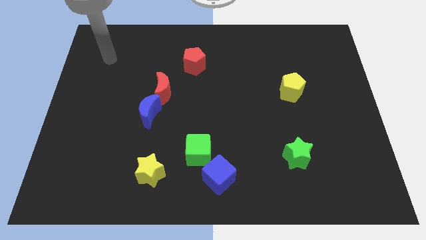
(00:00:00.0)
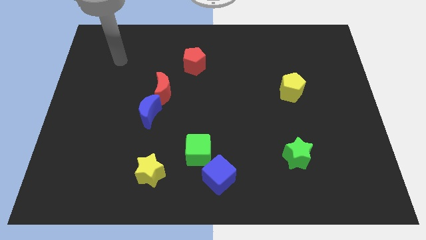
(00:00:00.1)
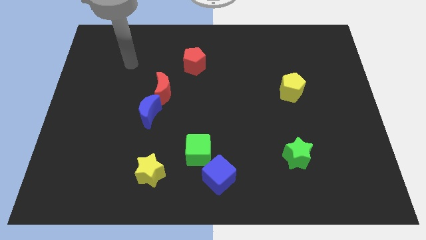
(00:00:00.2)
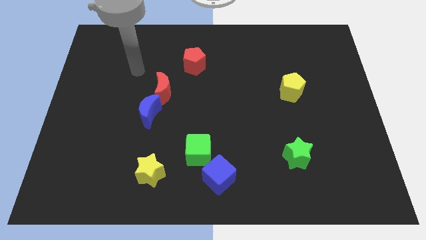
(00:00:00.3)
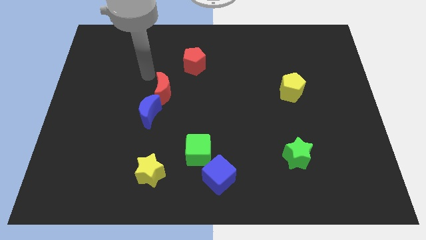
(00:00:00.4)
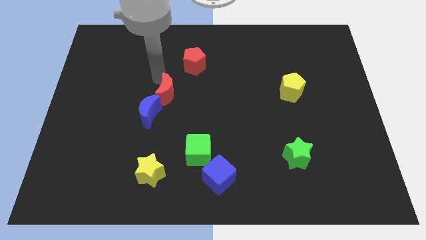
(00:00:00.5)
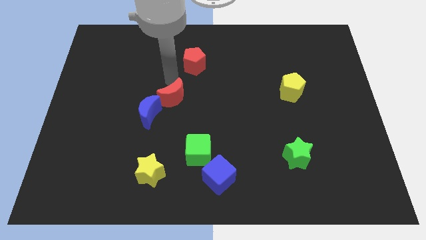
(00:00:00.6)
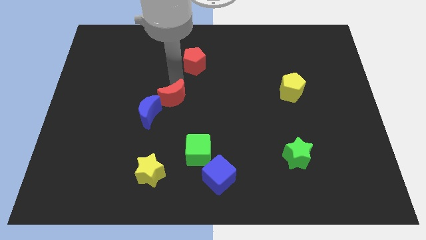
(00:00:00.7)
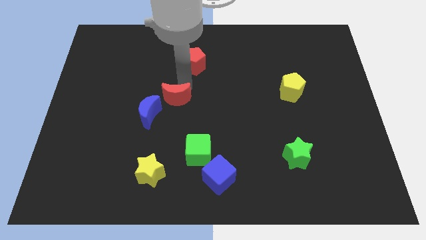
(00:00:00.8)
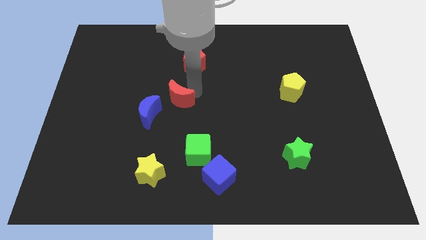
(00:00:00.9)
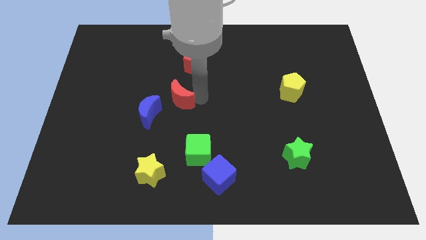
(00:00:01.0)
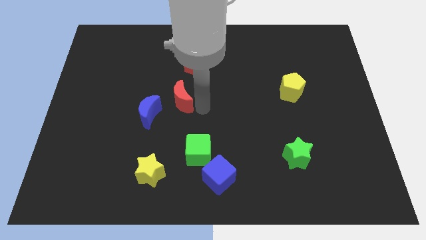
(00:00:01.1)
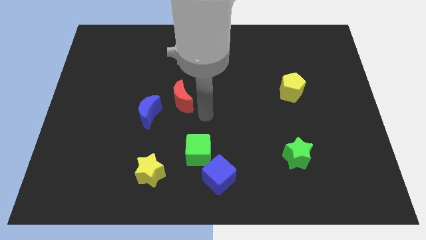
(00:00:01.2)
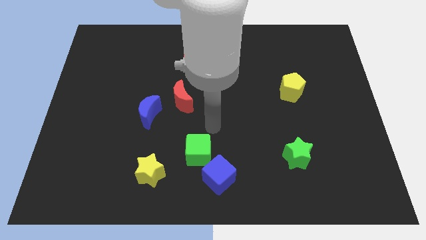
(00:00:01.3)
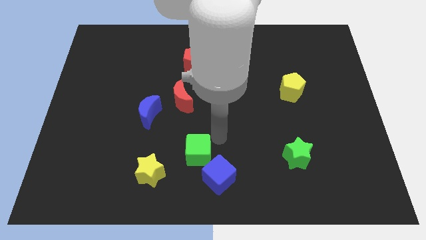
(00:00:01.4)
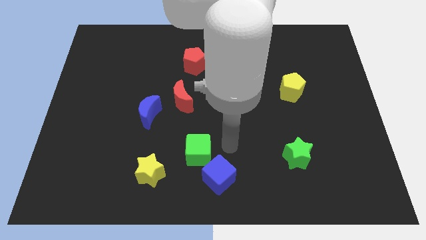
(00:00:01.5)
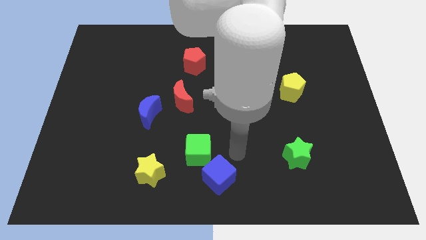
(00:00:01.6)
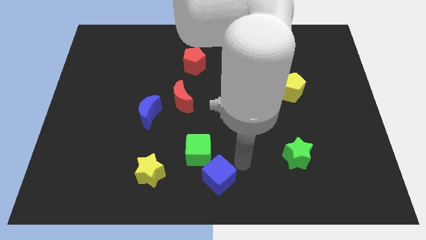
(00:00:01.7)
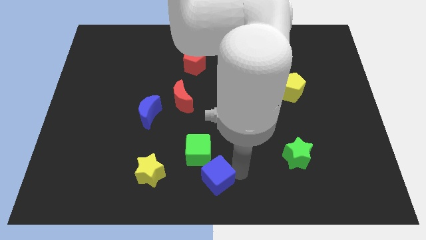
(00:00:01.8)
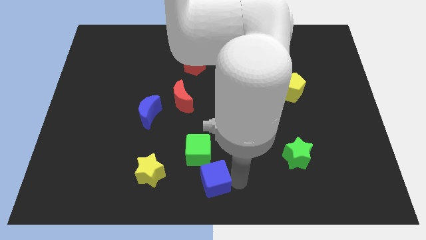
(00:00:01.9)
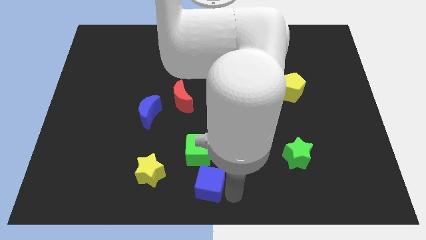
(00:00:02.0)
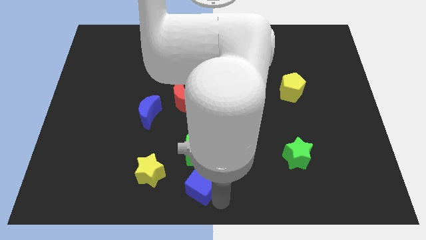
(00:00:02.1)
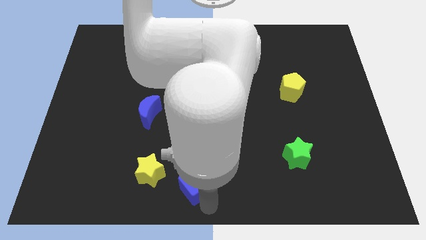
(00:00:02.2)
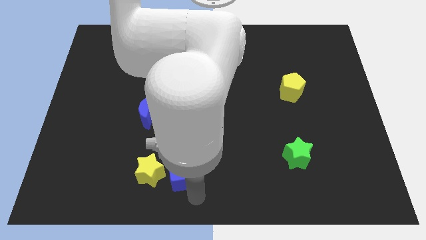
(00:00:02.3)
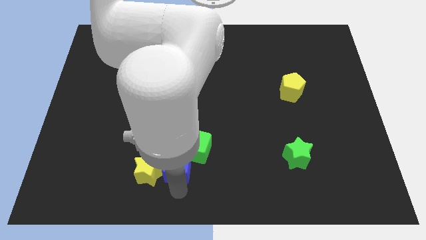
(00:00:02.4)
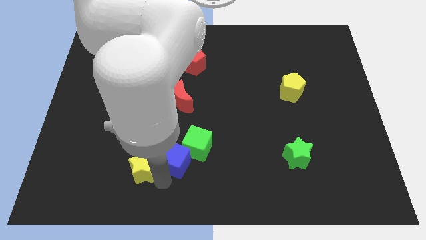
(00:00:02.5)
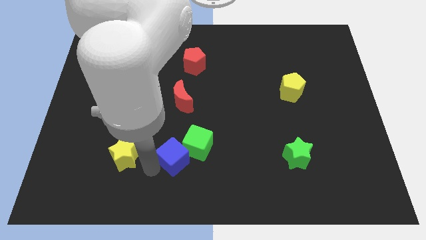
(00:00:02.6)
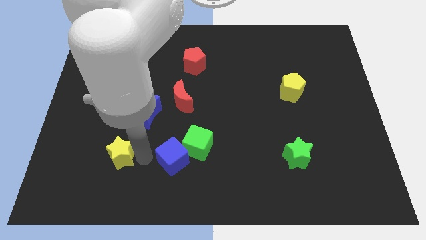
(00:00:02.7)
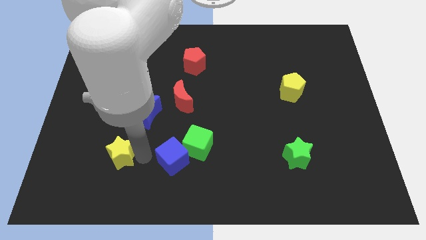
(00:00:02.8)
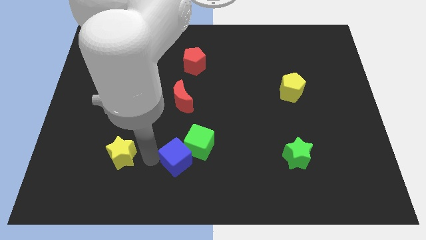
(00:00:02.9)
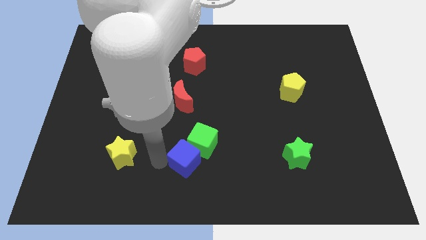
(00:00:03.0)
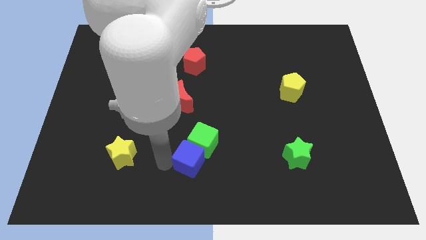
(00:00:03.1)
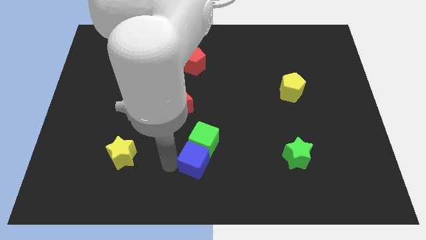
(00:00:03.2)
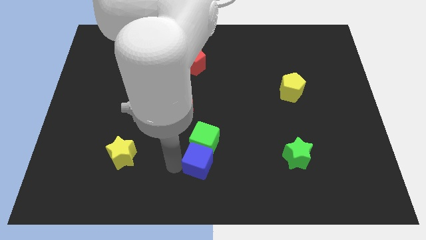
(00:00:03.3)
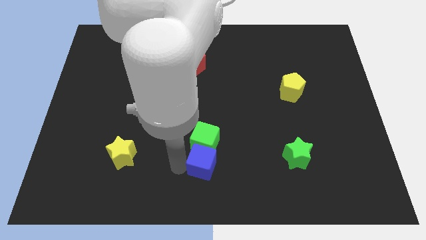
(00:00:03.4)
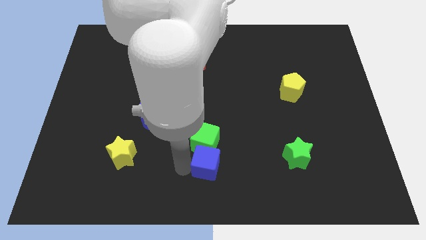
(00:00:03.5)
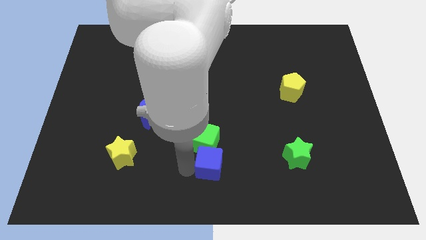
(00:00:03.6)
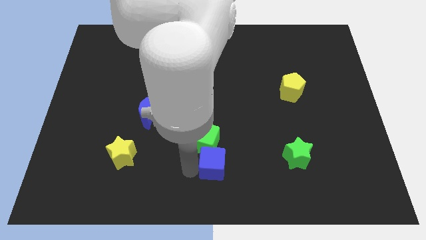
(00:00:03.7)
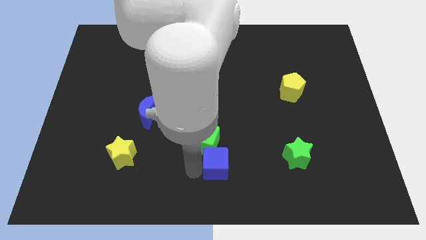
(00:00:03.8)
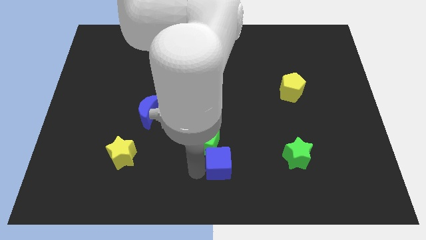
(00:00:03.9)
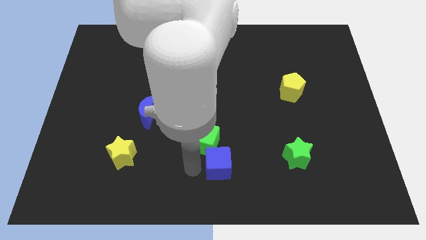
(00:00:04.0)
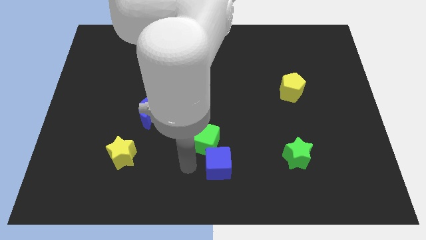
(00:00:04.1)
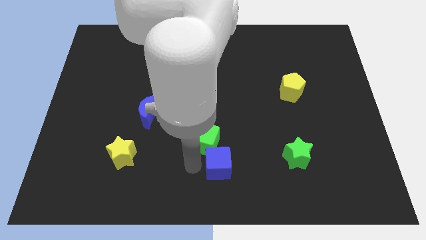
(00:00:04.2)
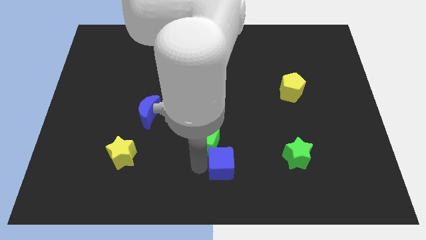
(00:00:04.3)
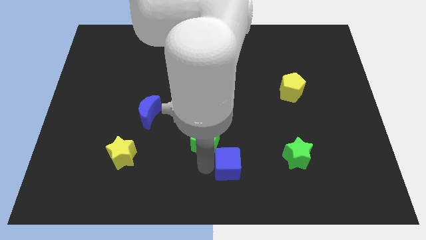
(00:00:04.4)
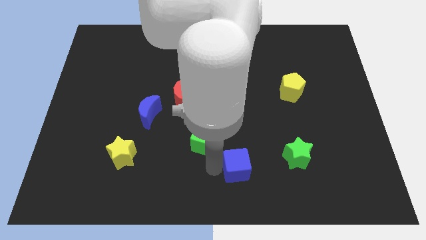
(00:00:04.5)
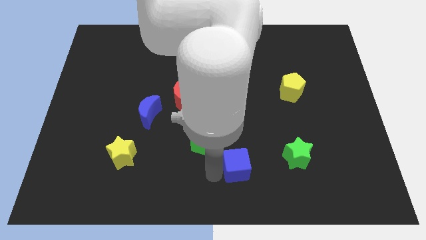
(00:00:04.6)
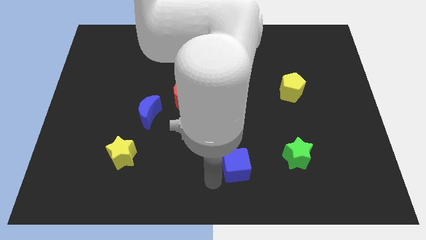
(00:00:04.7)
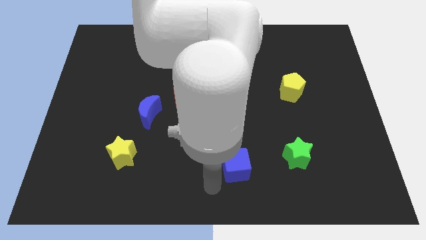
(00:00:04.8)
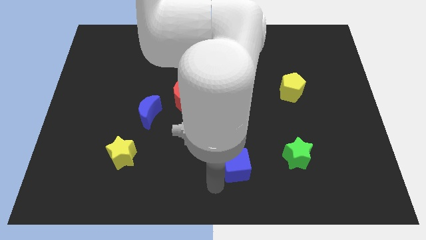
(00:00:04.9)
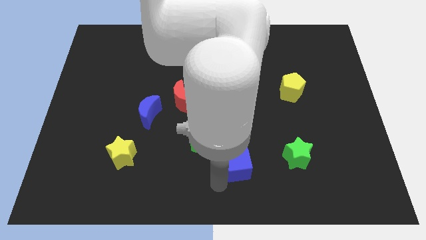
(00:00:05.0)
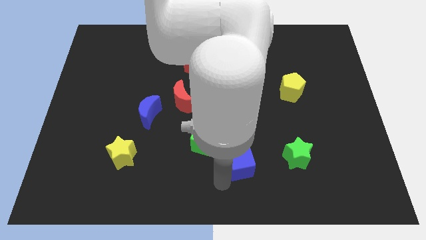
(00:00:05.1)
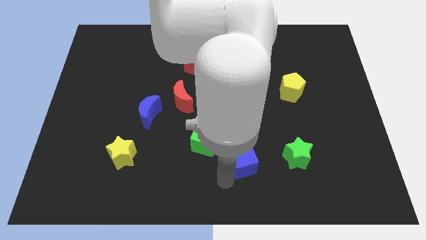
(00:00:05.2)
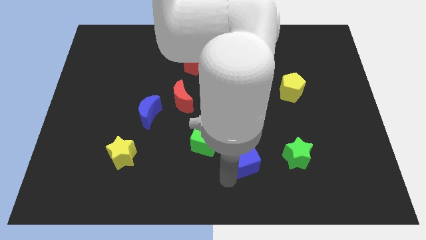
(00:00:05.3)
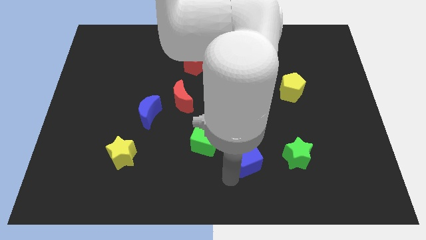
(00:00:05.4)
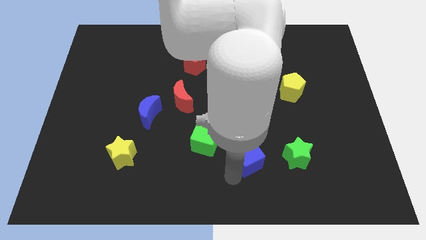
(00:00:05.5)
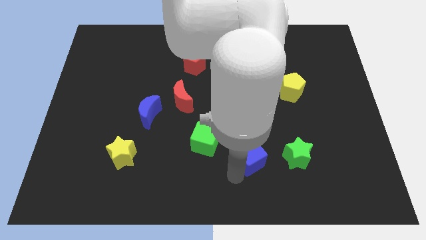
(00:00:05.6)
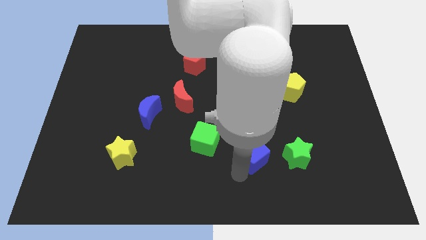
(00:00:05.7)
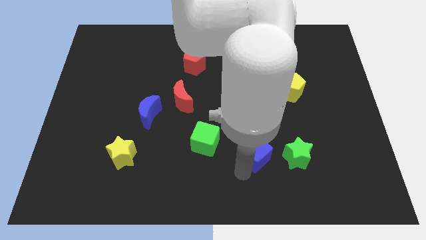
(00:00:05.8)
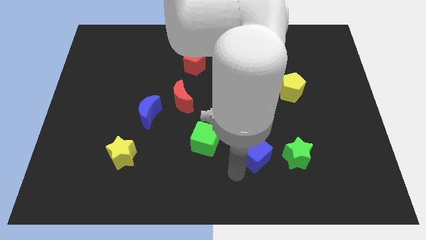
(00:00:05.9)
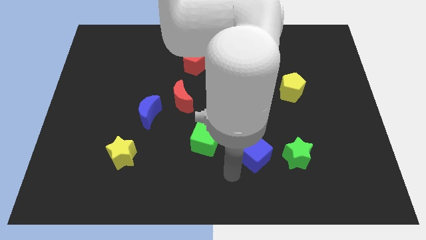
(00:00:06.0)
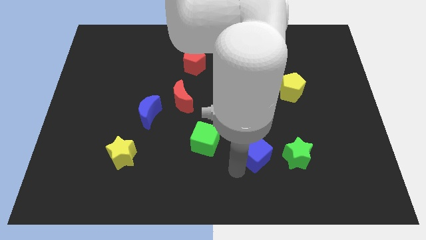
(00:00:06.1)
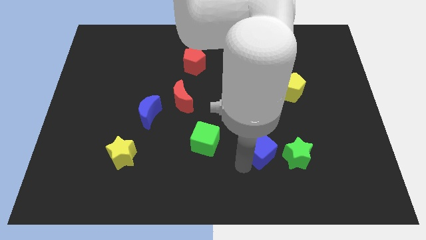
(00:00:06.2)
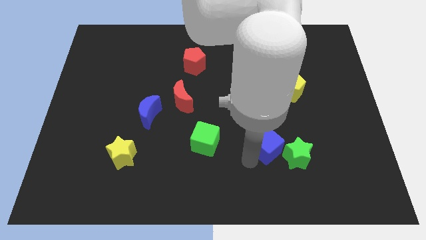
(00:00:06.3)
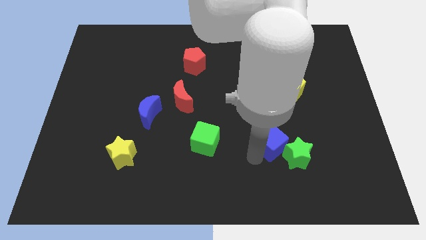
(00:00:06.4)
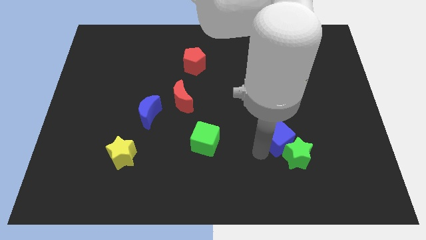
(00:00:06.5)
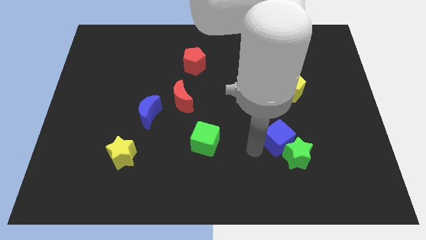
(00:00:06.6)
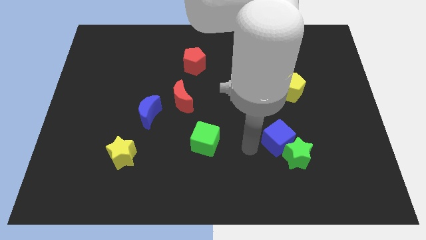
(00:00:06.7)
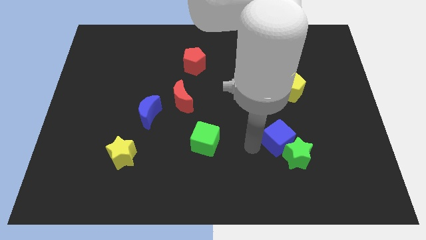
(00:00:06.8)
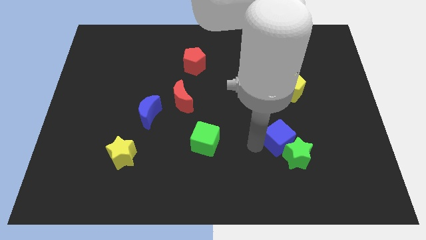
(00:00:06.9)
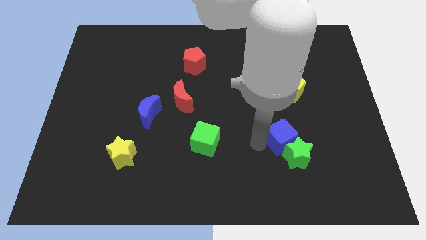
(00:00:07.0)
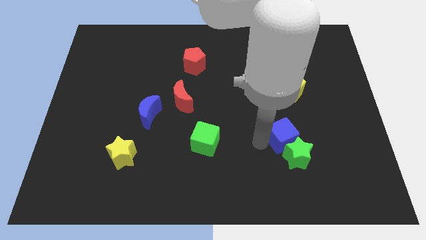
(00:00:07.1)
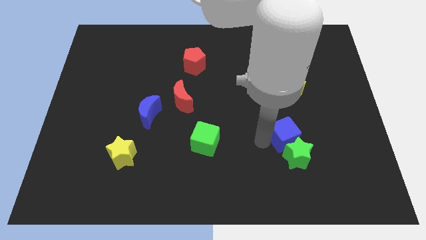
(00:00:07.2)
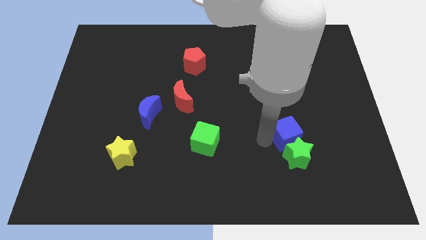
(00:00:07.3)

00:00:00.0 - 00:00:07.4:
put the blue cube diagonally up and to the right of the green star

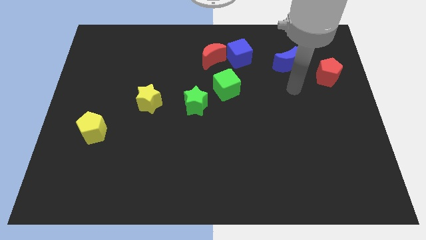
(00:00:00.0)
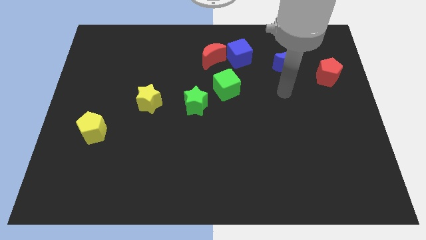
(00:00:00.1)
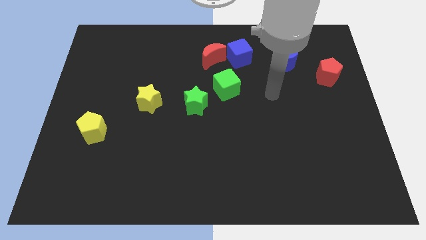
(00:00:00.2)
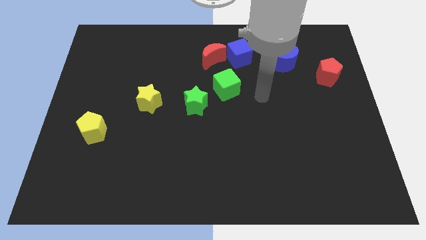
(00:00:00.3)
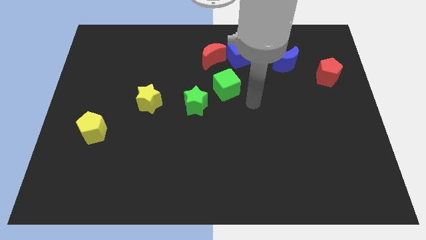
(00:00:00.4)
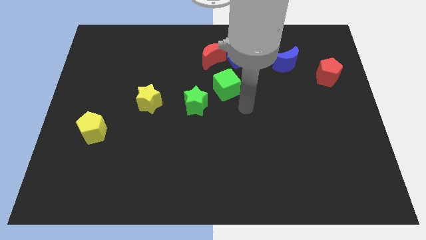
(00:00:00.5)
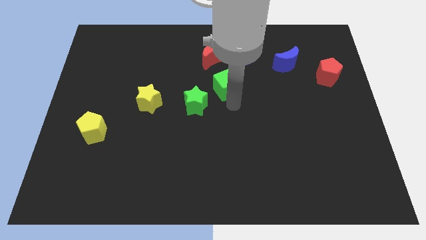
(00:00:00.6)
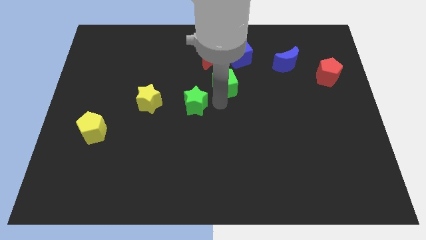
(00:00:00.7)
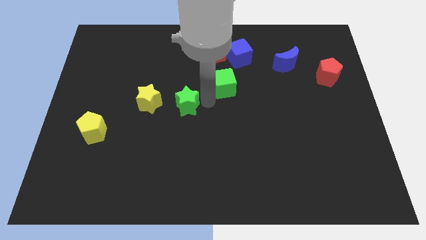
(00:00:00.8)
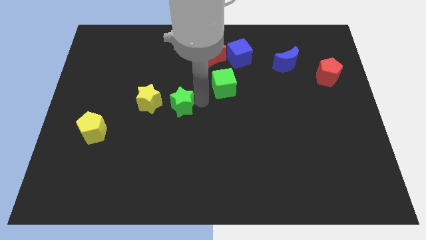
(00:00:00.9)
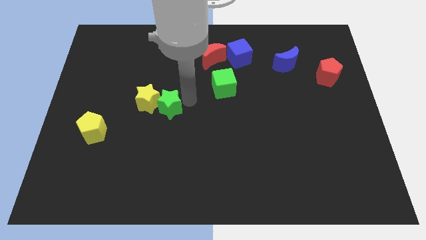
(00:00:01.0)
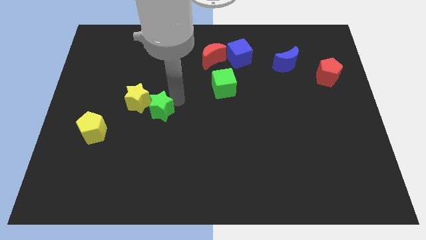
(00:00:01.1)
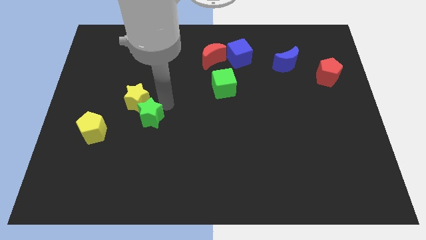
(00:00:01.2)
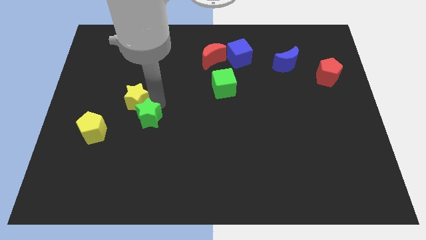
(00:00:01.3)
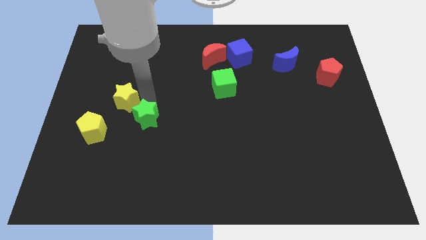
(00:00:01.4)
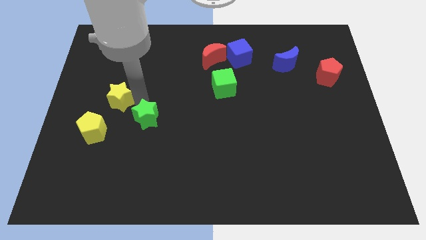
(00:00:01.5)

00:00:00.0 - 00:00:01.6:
push the yellow star to the top side of the yellow pentagon
